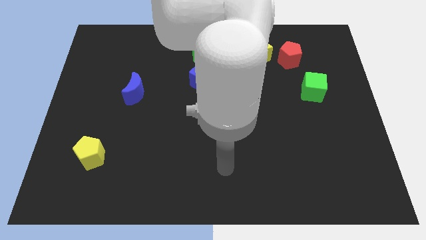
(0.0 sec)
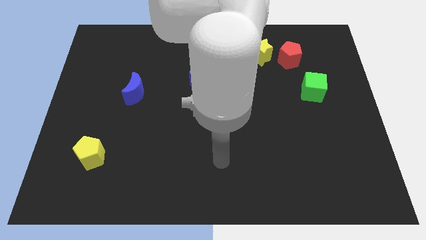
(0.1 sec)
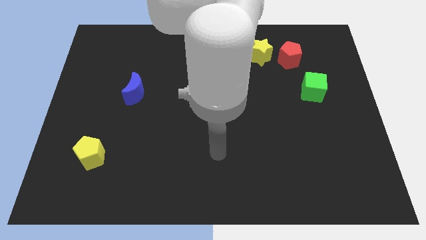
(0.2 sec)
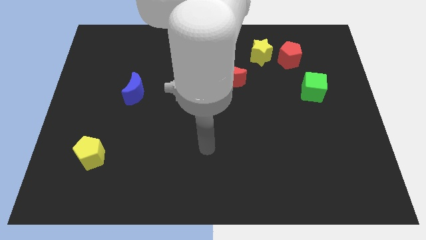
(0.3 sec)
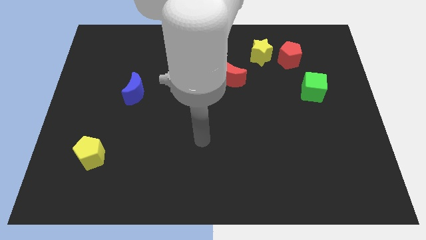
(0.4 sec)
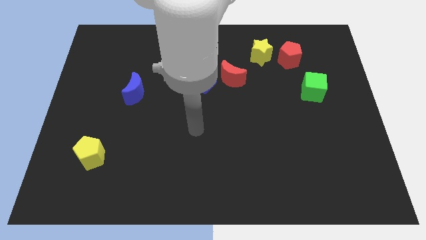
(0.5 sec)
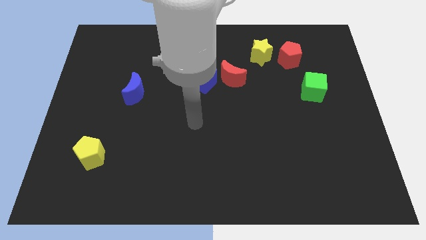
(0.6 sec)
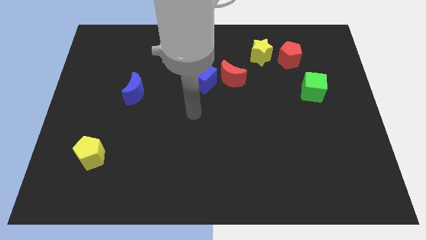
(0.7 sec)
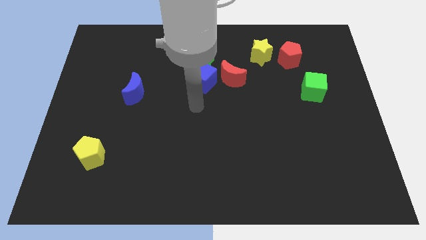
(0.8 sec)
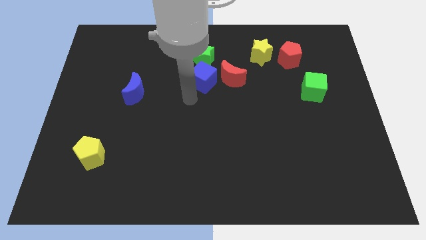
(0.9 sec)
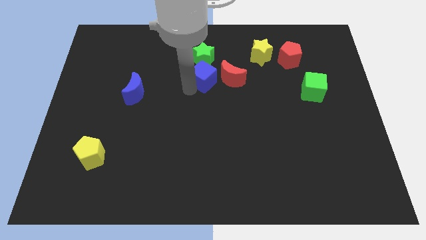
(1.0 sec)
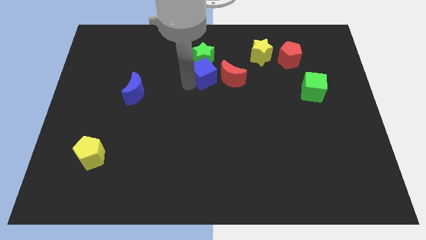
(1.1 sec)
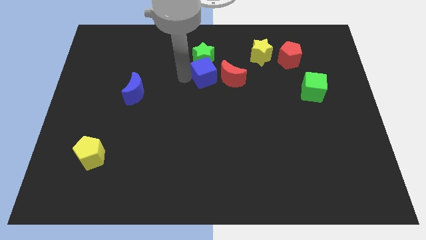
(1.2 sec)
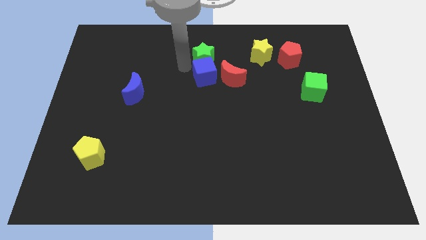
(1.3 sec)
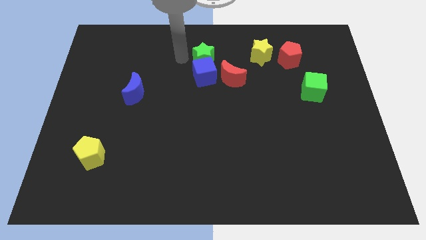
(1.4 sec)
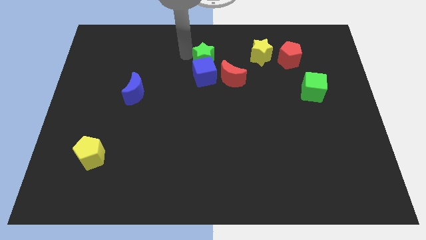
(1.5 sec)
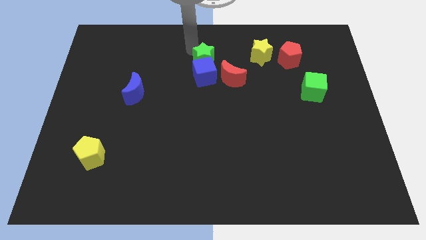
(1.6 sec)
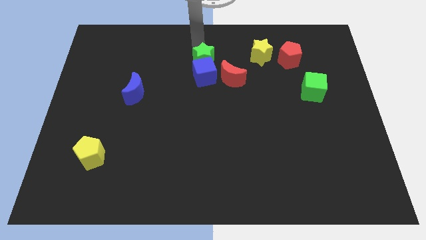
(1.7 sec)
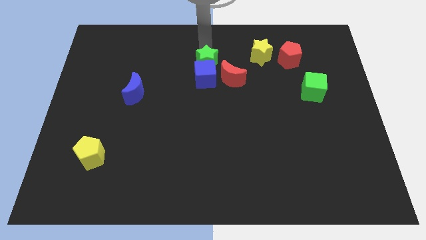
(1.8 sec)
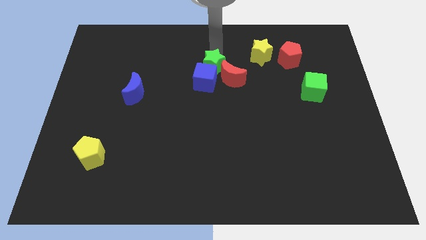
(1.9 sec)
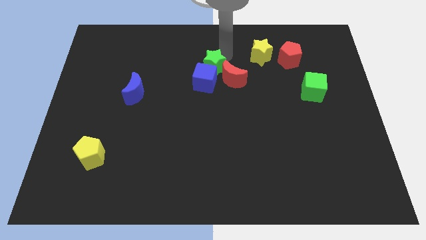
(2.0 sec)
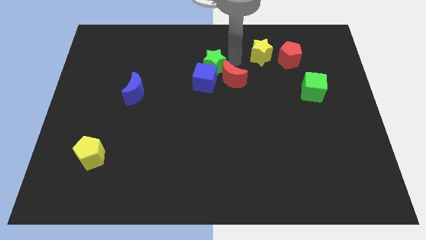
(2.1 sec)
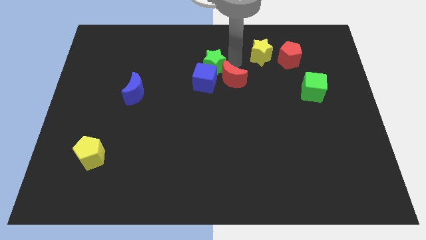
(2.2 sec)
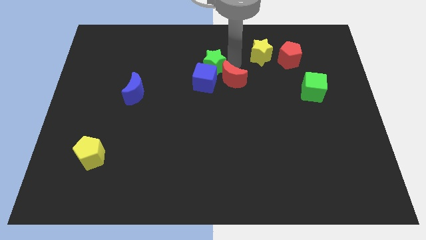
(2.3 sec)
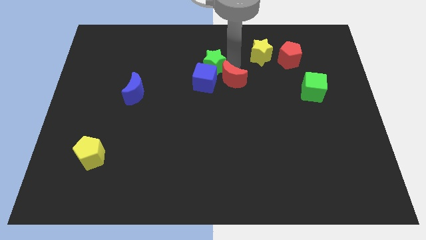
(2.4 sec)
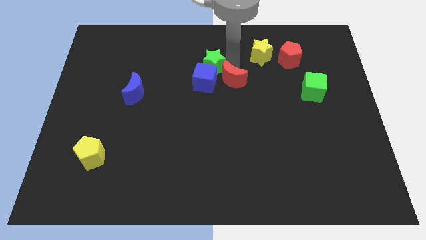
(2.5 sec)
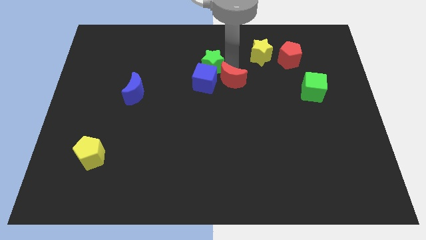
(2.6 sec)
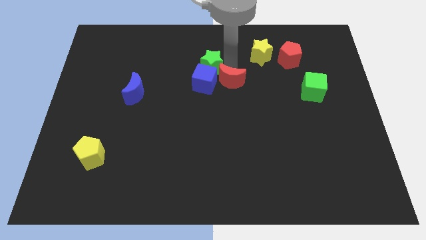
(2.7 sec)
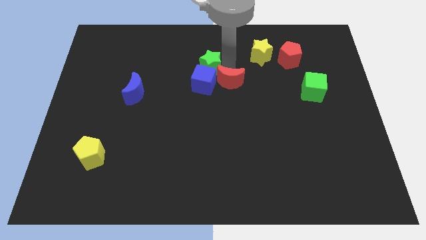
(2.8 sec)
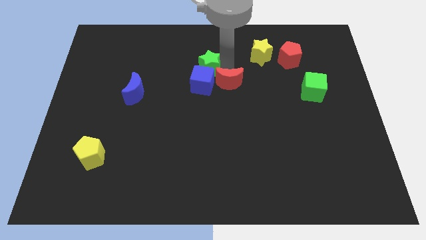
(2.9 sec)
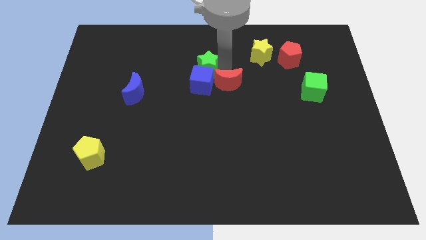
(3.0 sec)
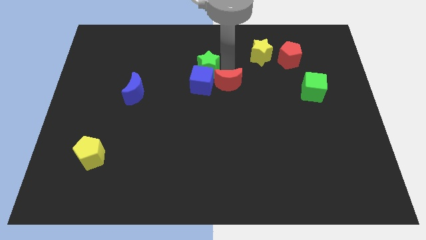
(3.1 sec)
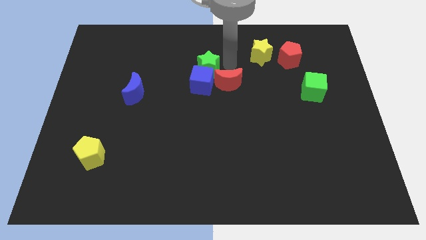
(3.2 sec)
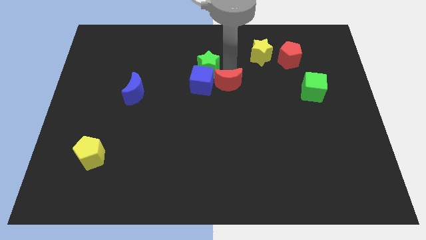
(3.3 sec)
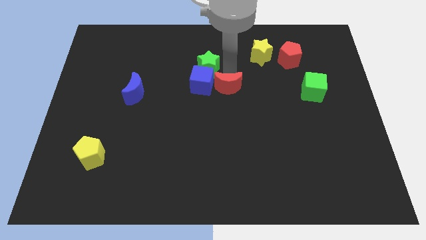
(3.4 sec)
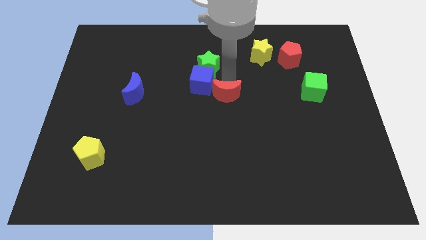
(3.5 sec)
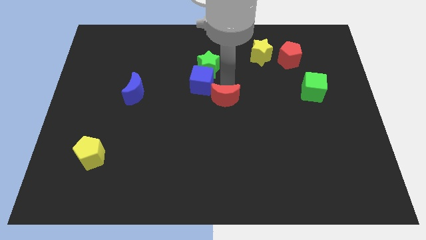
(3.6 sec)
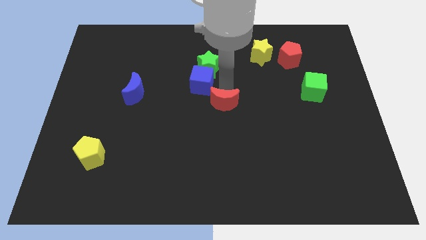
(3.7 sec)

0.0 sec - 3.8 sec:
slightly slide the red moon downwards

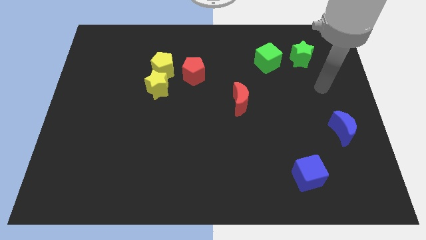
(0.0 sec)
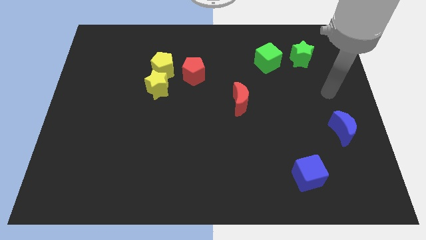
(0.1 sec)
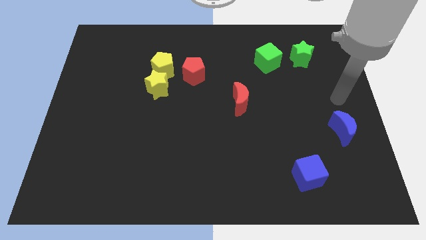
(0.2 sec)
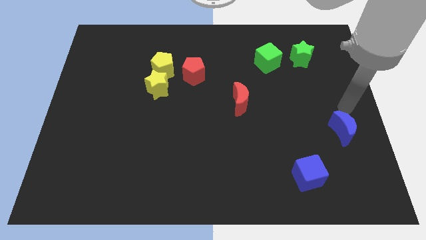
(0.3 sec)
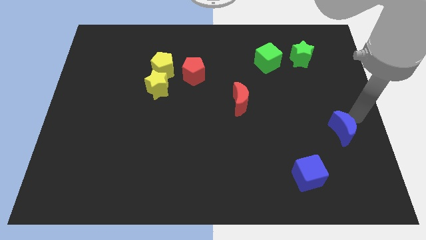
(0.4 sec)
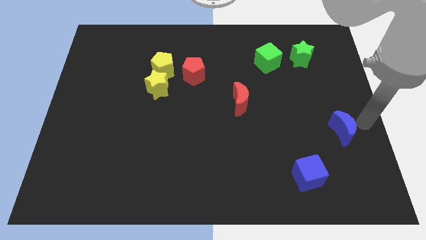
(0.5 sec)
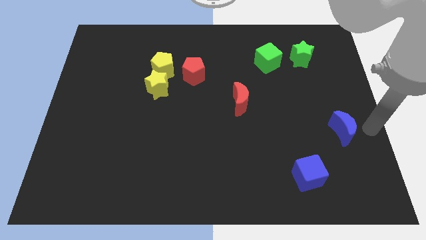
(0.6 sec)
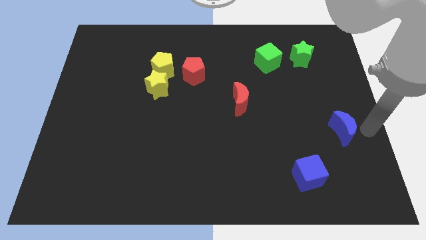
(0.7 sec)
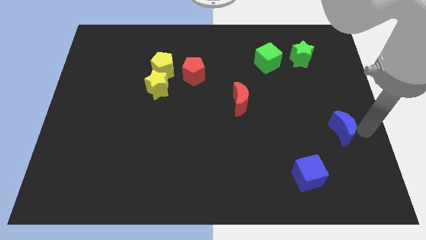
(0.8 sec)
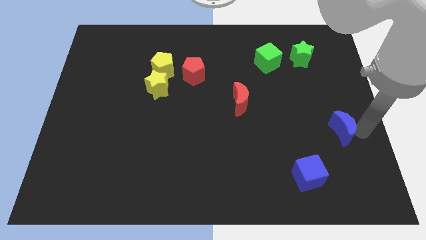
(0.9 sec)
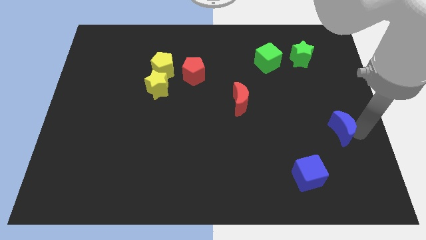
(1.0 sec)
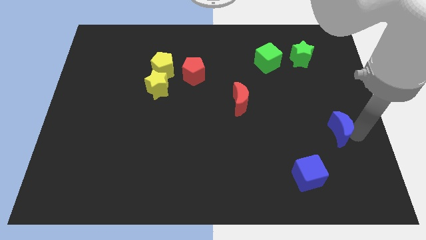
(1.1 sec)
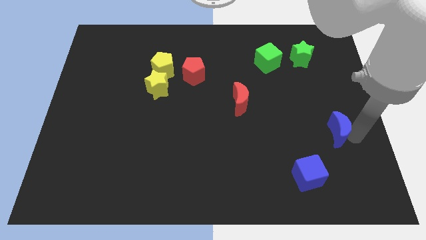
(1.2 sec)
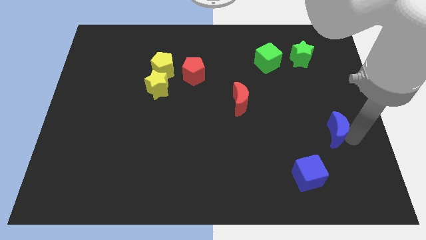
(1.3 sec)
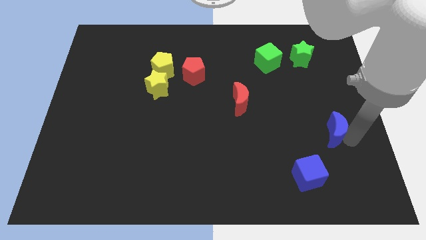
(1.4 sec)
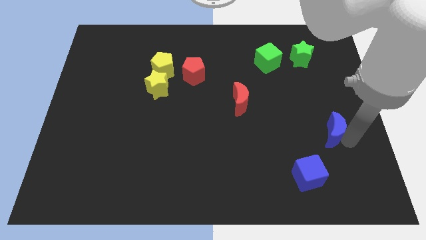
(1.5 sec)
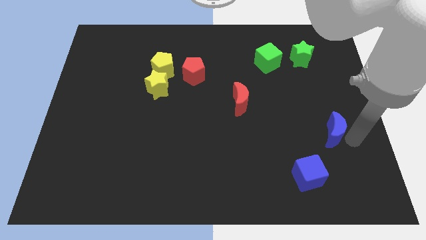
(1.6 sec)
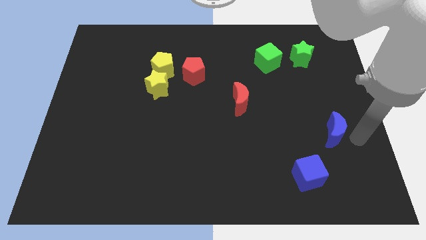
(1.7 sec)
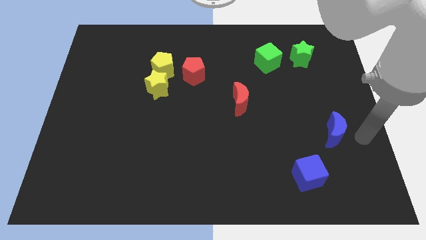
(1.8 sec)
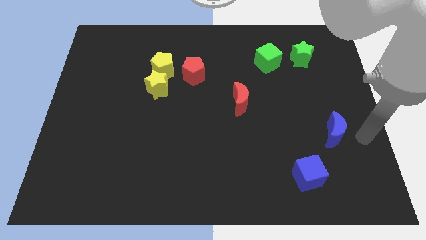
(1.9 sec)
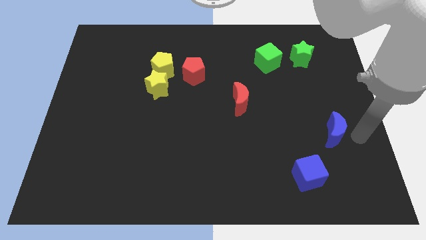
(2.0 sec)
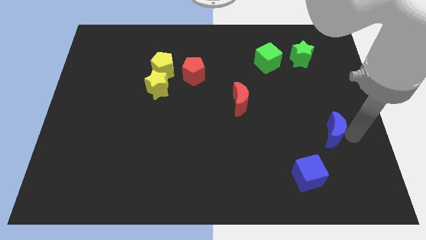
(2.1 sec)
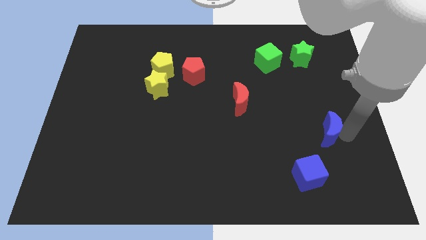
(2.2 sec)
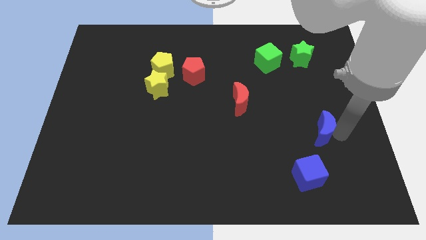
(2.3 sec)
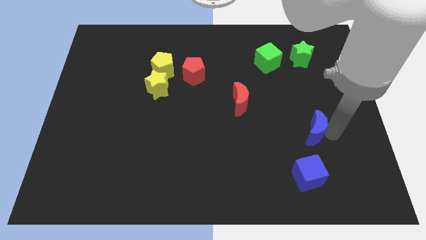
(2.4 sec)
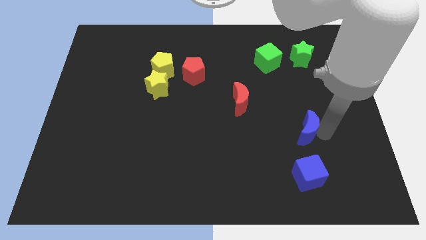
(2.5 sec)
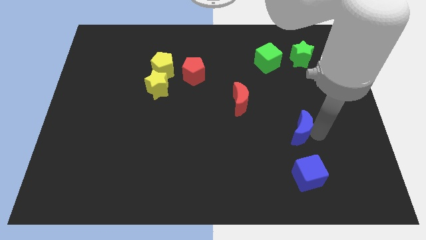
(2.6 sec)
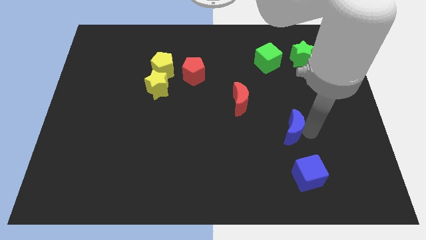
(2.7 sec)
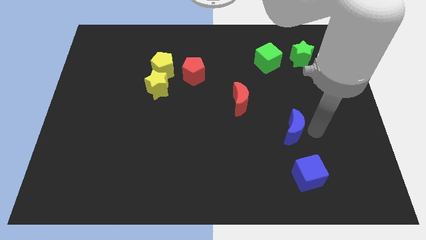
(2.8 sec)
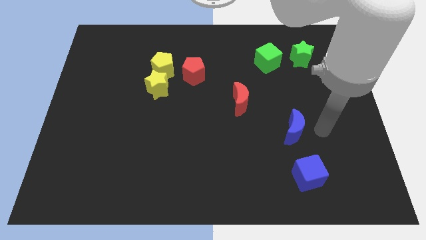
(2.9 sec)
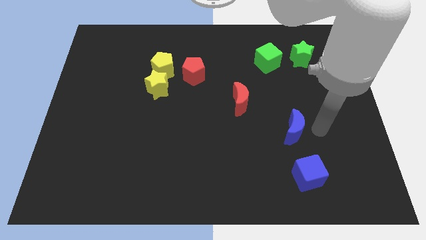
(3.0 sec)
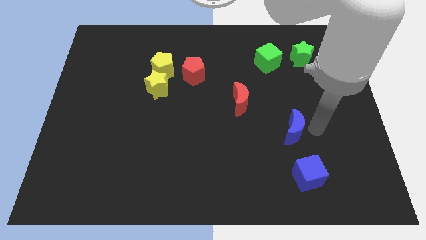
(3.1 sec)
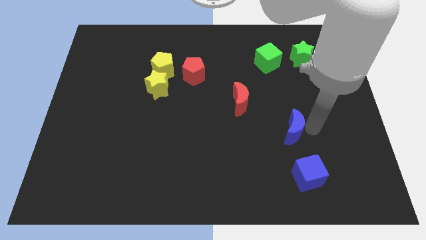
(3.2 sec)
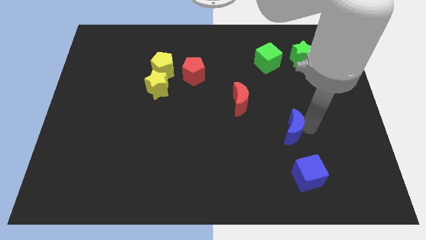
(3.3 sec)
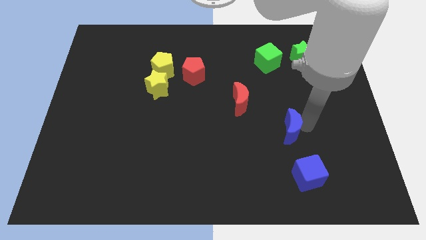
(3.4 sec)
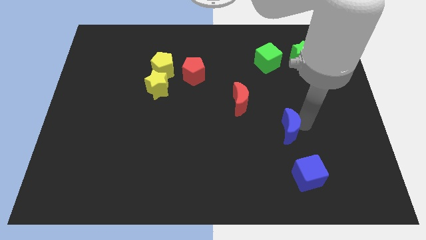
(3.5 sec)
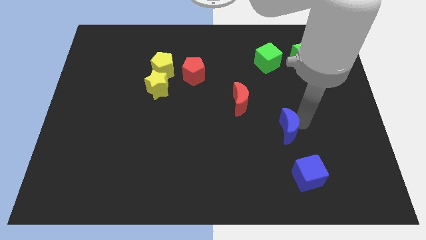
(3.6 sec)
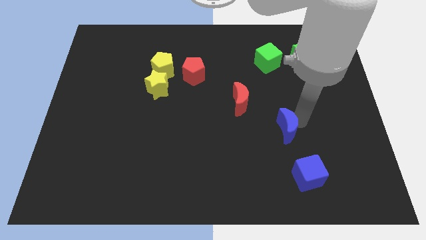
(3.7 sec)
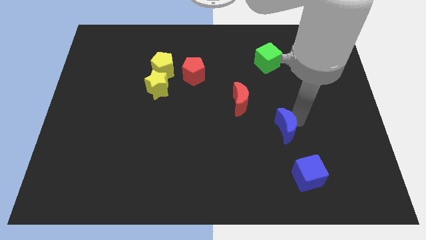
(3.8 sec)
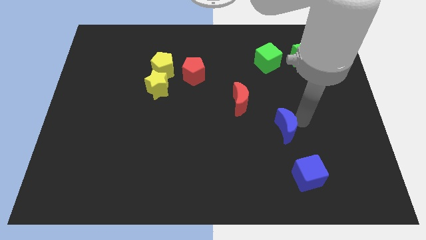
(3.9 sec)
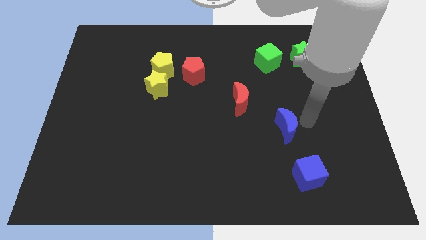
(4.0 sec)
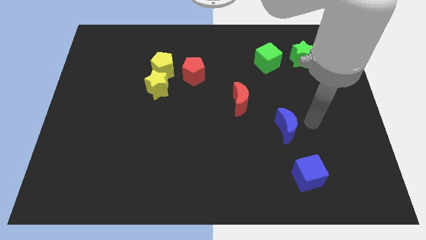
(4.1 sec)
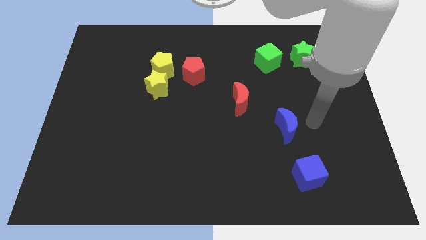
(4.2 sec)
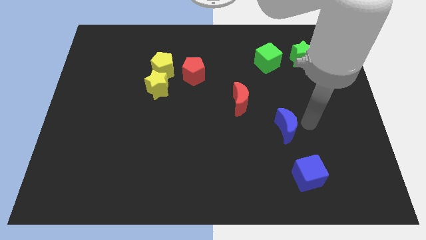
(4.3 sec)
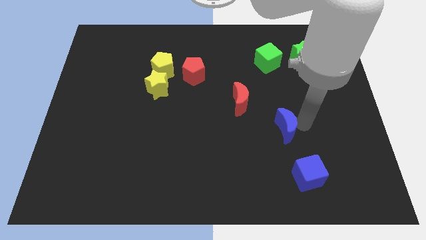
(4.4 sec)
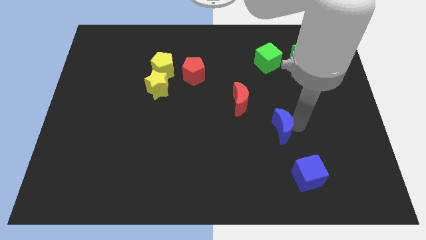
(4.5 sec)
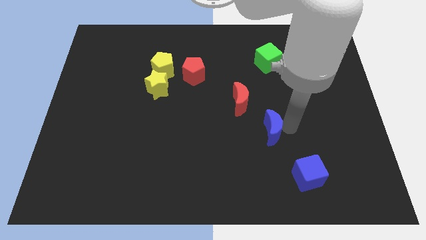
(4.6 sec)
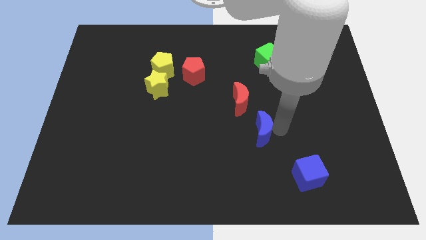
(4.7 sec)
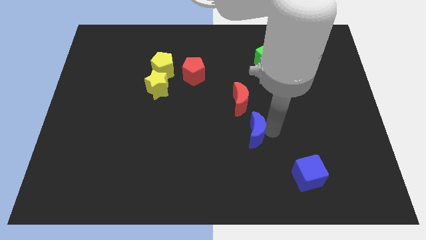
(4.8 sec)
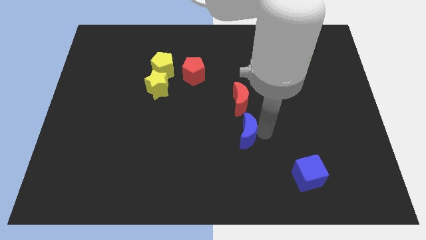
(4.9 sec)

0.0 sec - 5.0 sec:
push the blue moon left
